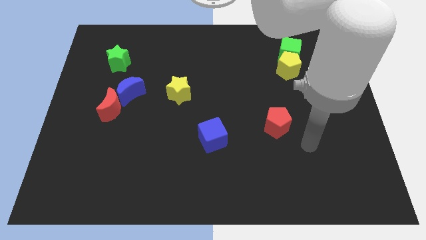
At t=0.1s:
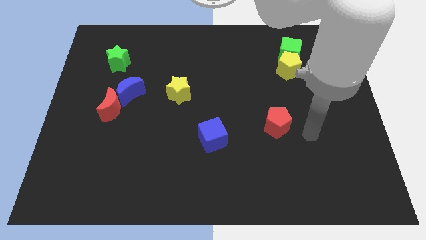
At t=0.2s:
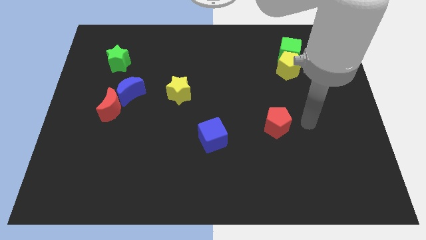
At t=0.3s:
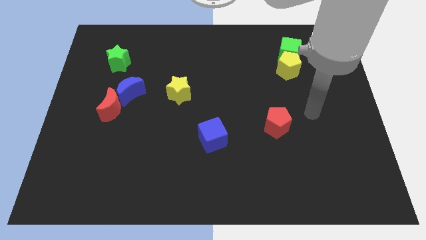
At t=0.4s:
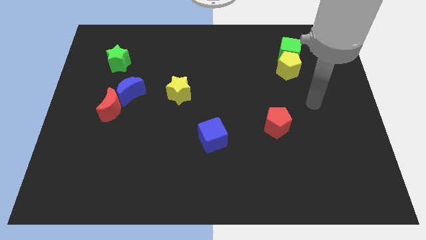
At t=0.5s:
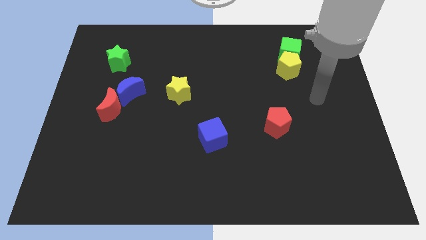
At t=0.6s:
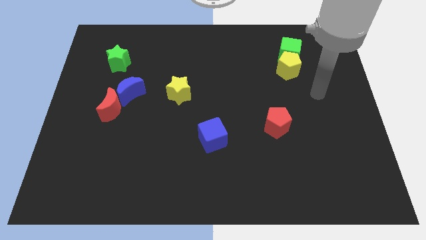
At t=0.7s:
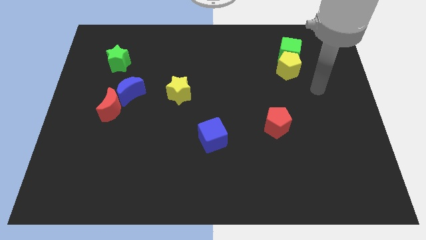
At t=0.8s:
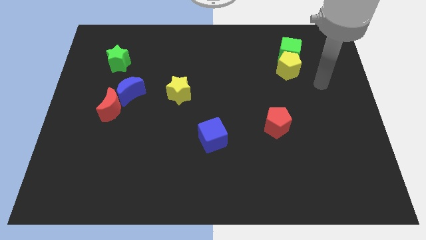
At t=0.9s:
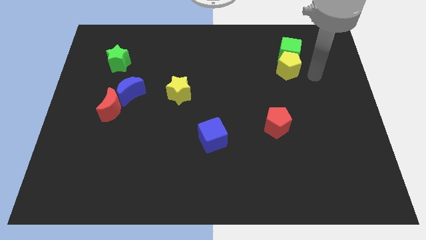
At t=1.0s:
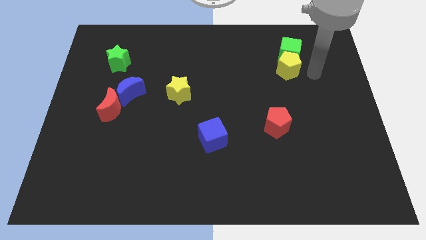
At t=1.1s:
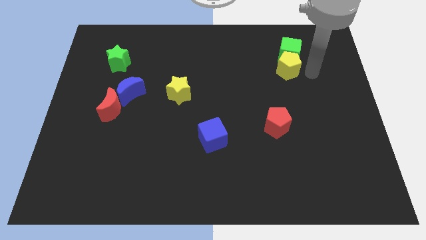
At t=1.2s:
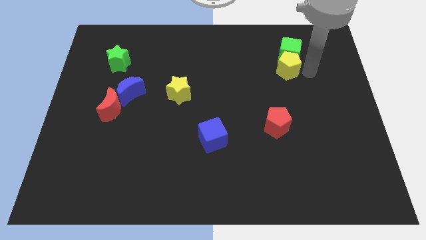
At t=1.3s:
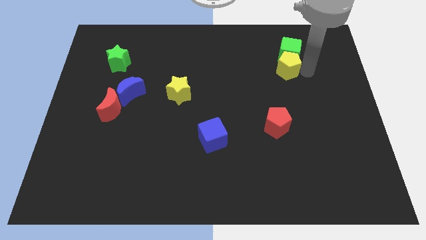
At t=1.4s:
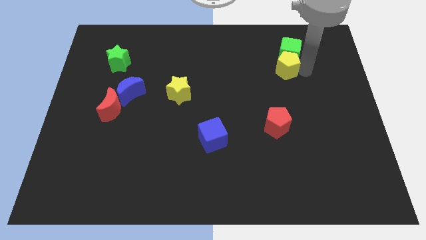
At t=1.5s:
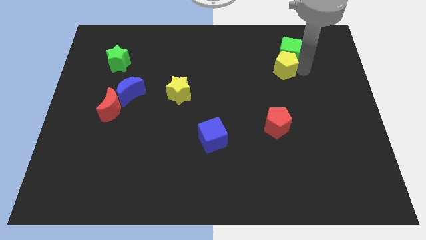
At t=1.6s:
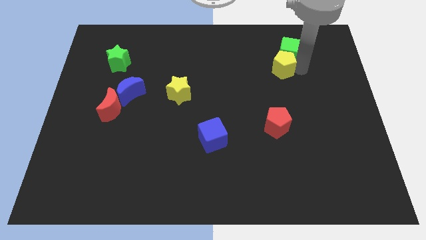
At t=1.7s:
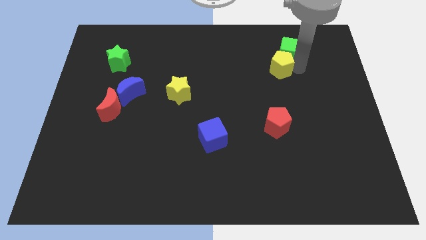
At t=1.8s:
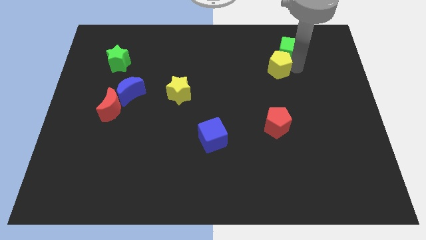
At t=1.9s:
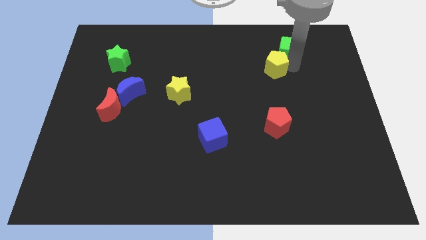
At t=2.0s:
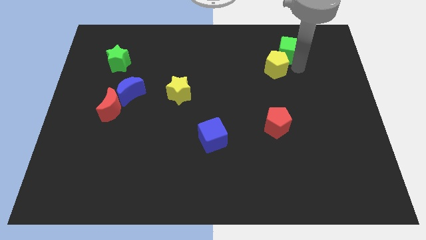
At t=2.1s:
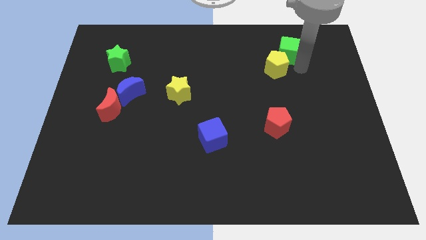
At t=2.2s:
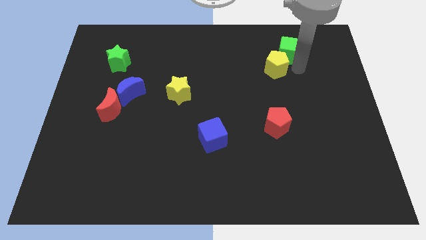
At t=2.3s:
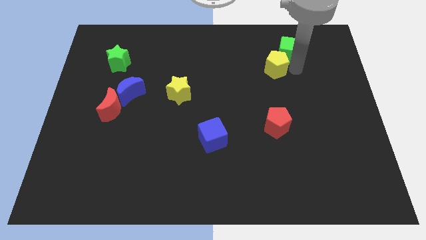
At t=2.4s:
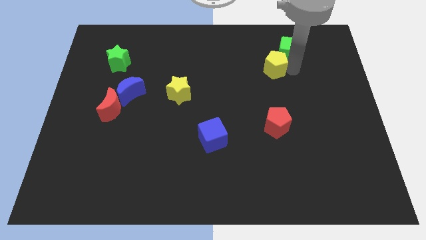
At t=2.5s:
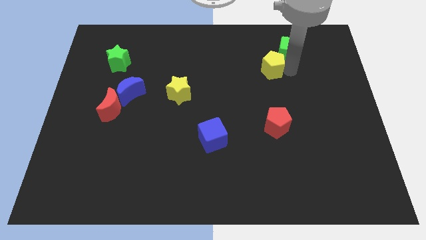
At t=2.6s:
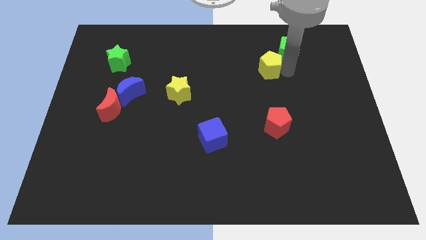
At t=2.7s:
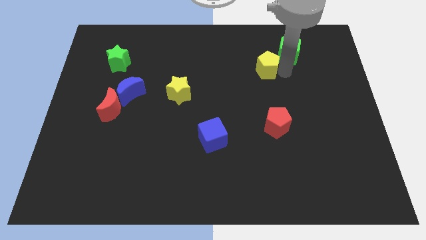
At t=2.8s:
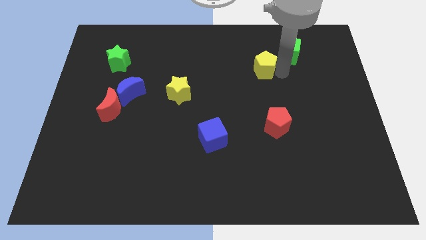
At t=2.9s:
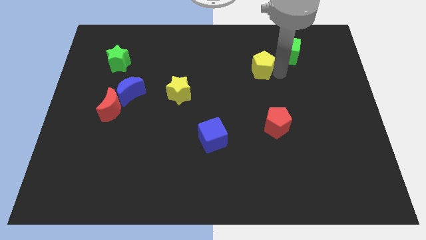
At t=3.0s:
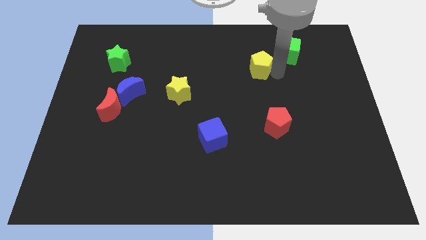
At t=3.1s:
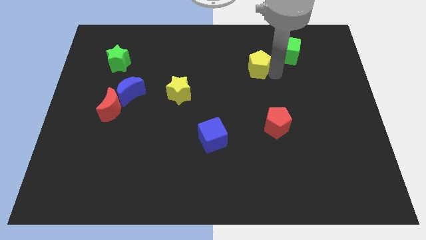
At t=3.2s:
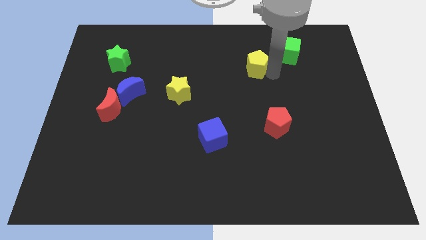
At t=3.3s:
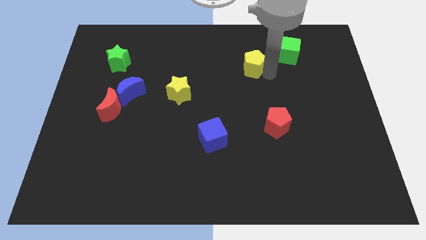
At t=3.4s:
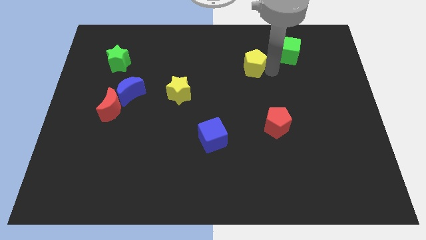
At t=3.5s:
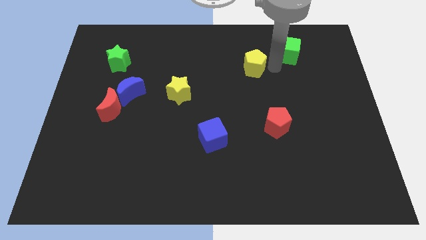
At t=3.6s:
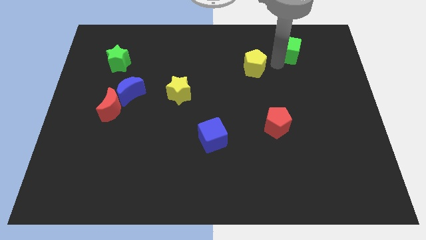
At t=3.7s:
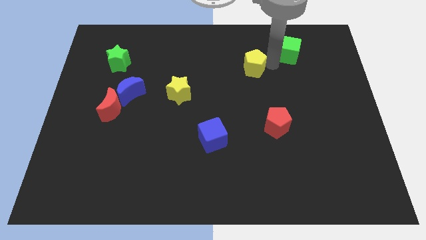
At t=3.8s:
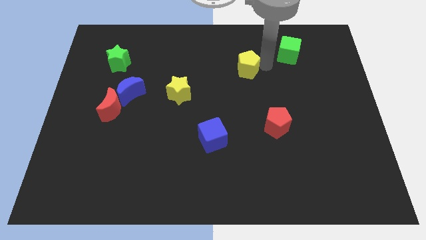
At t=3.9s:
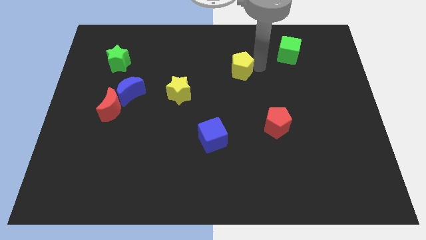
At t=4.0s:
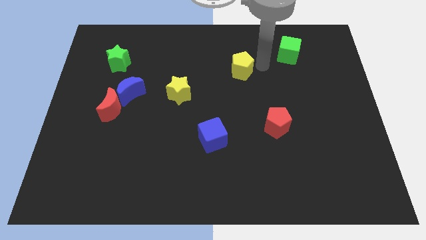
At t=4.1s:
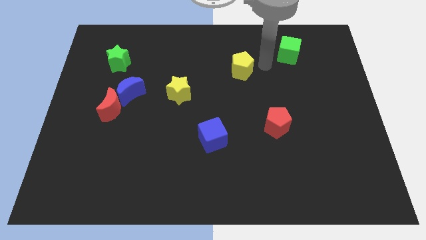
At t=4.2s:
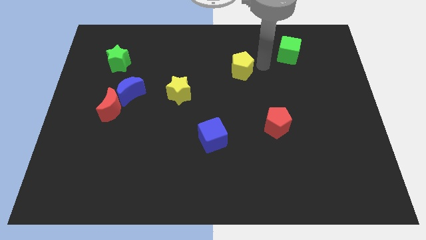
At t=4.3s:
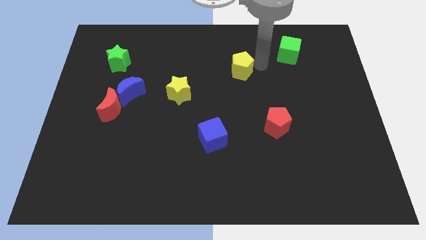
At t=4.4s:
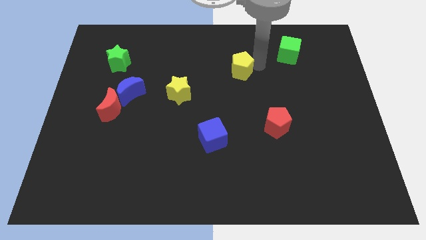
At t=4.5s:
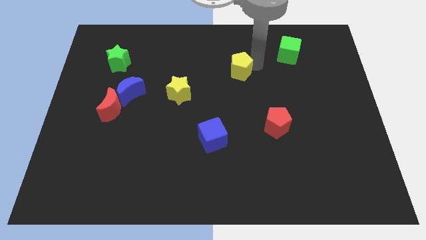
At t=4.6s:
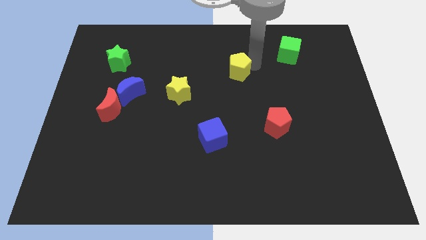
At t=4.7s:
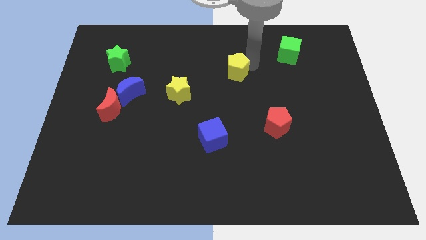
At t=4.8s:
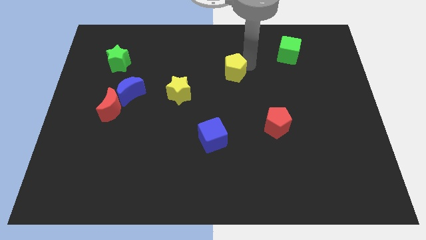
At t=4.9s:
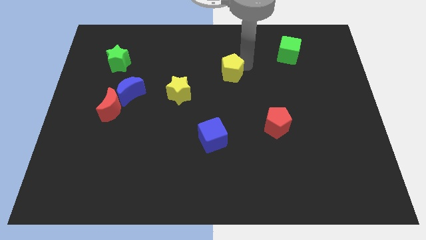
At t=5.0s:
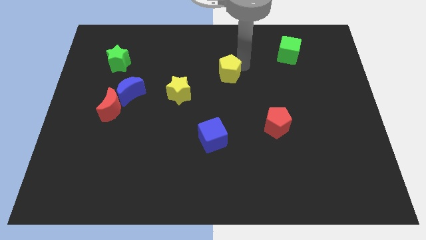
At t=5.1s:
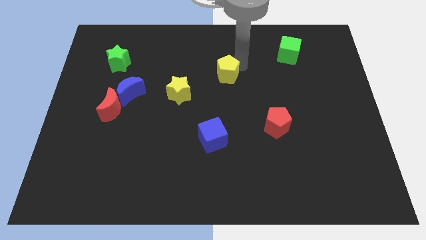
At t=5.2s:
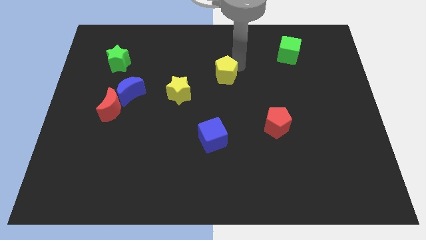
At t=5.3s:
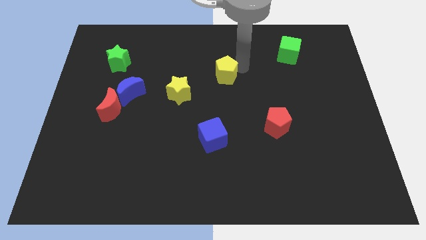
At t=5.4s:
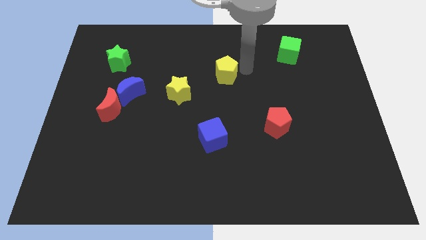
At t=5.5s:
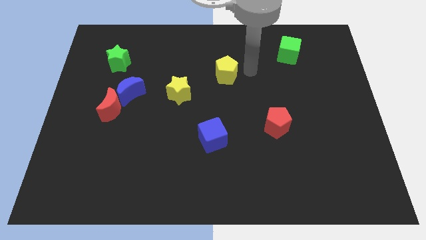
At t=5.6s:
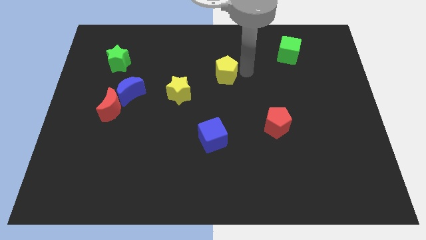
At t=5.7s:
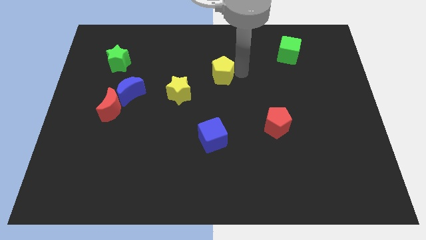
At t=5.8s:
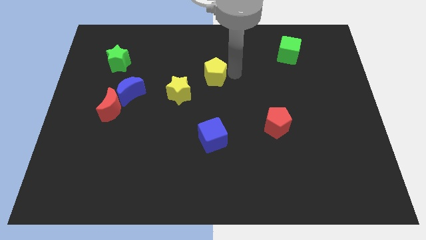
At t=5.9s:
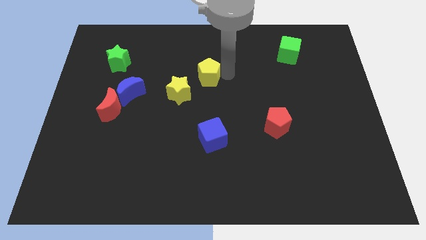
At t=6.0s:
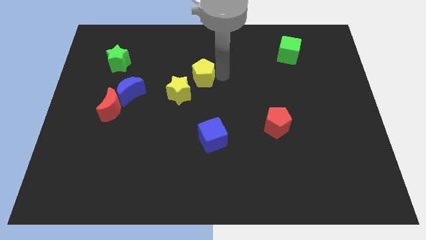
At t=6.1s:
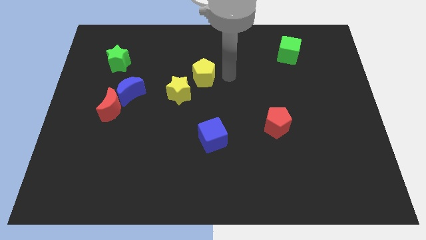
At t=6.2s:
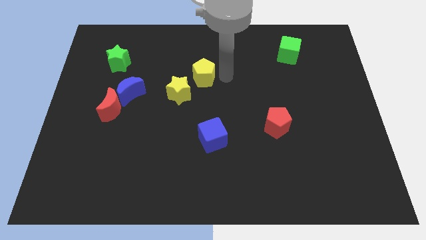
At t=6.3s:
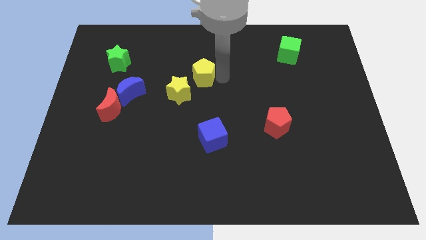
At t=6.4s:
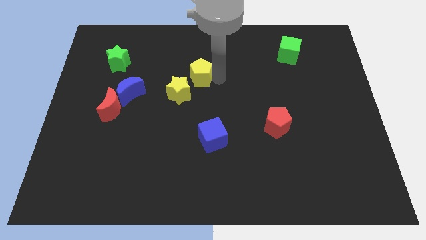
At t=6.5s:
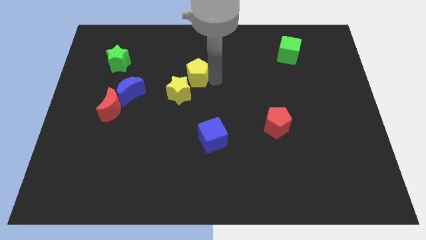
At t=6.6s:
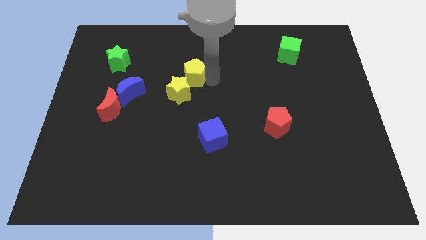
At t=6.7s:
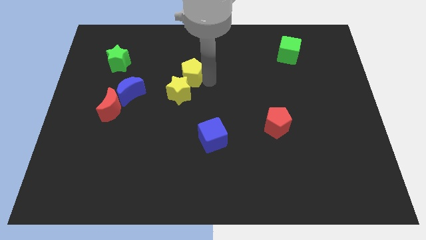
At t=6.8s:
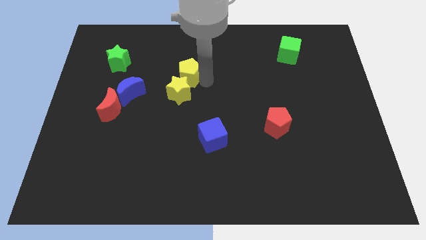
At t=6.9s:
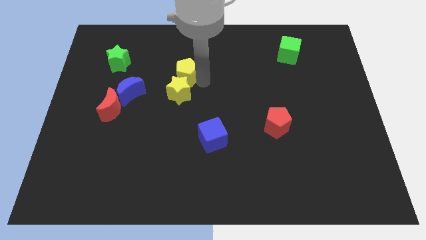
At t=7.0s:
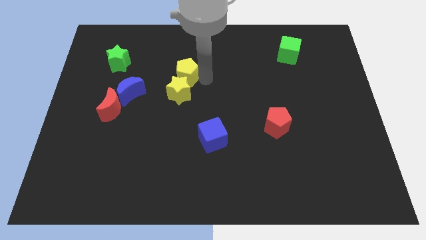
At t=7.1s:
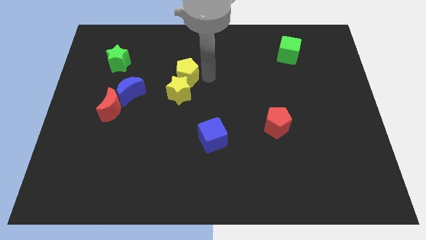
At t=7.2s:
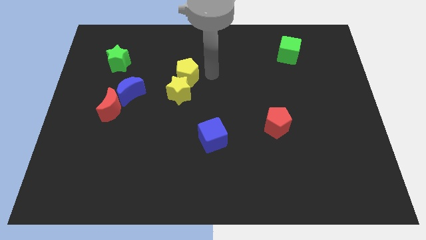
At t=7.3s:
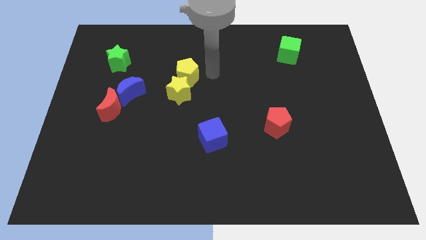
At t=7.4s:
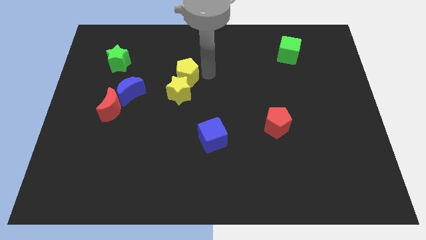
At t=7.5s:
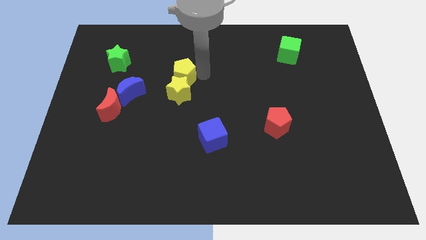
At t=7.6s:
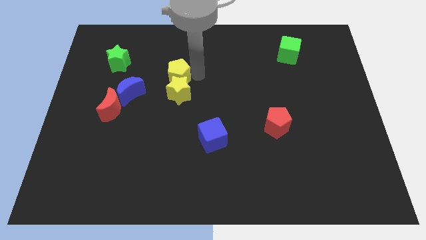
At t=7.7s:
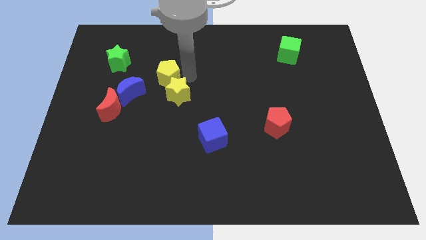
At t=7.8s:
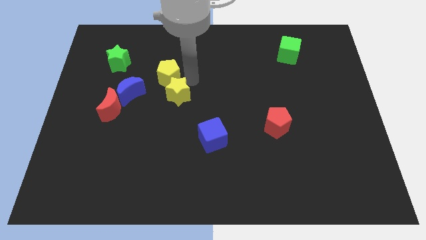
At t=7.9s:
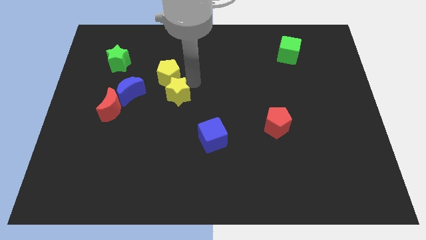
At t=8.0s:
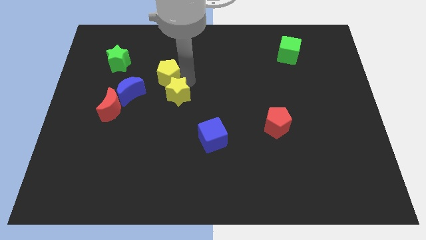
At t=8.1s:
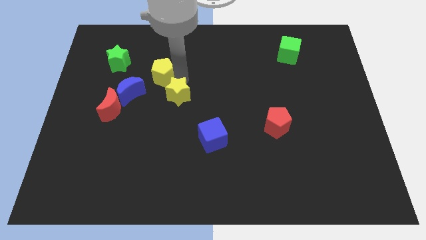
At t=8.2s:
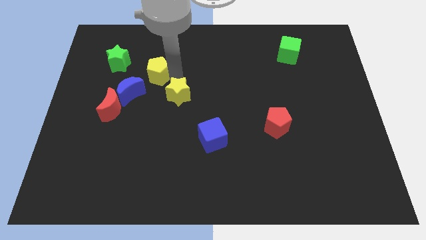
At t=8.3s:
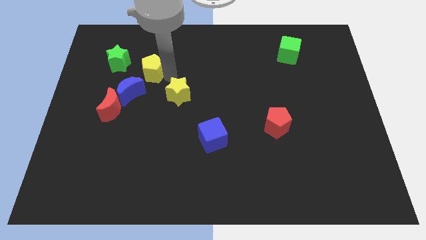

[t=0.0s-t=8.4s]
move the yellow pentagon to the bottom right of the green star
